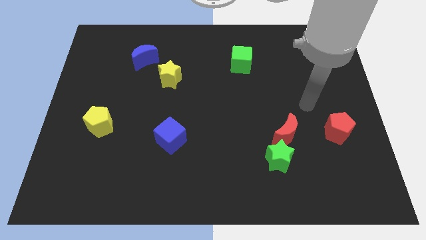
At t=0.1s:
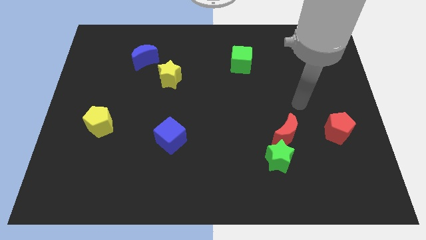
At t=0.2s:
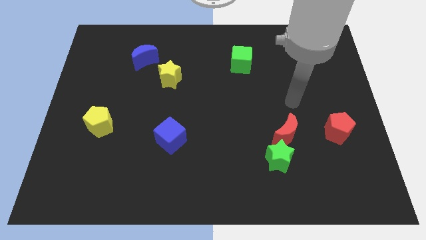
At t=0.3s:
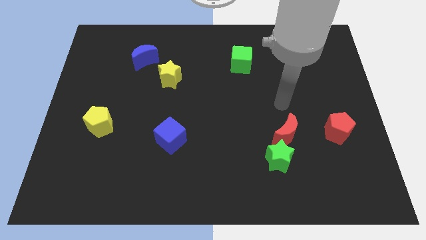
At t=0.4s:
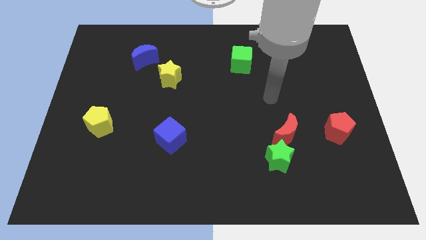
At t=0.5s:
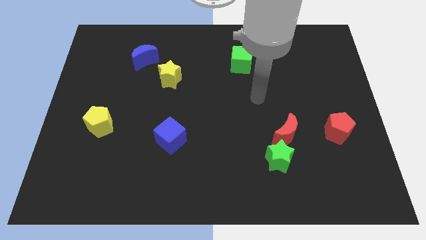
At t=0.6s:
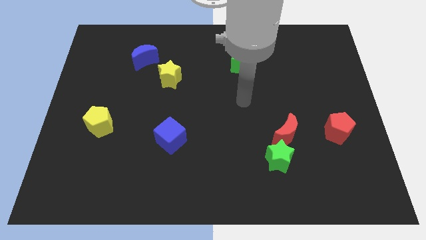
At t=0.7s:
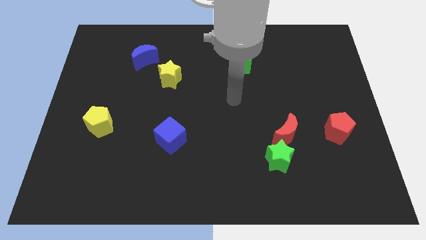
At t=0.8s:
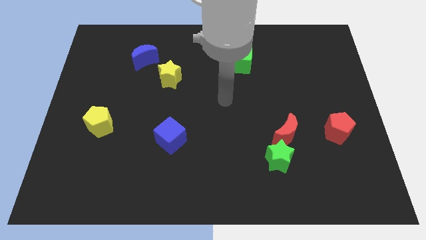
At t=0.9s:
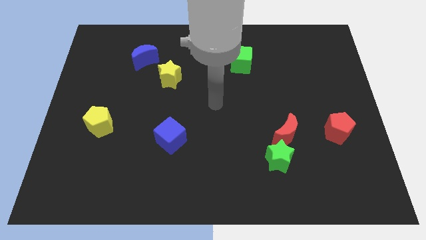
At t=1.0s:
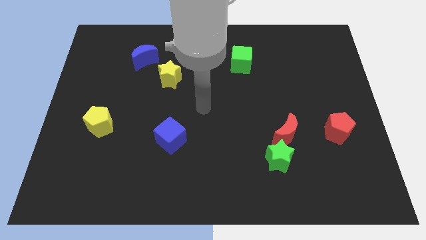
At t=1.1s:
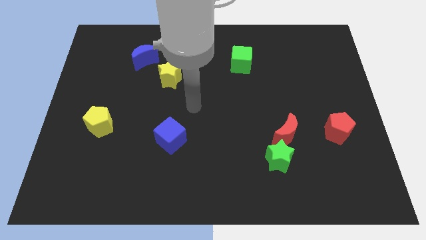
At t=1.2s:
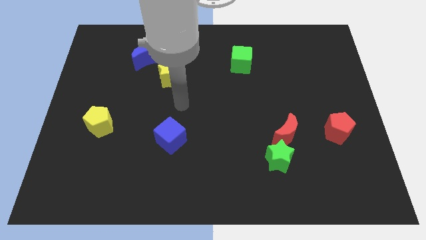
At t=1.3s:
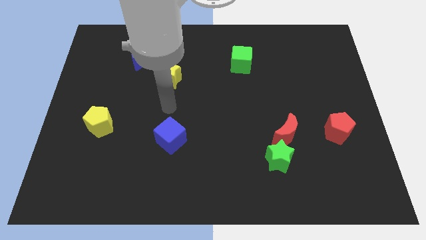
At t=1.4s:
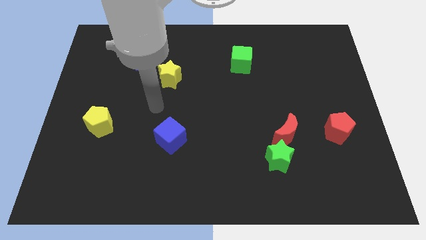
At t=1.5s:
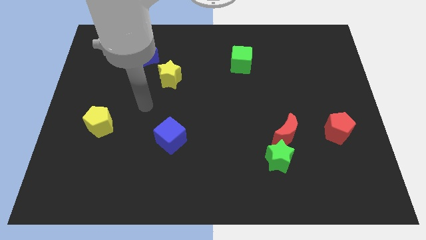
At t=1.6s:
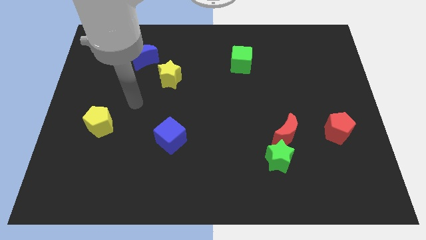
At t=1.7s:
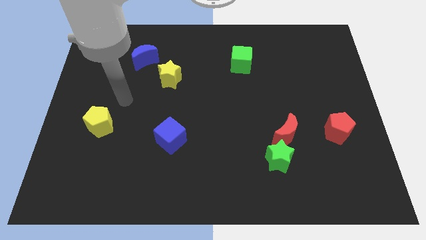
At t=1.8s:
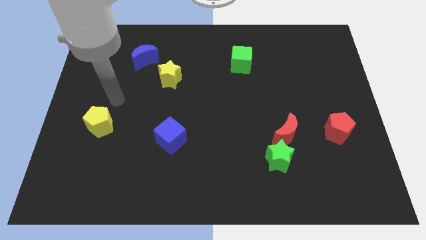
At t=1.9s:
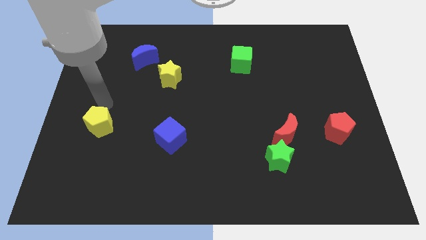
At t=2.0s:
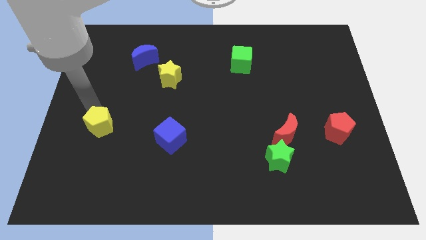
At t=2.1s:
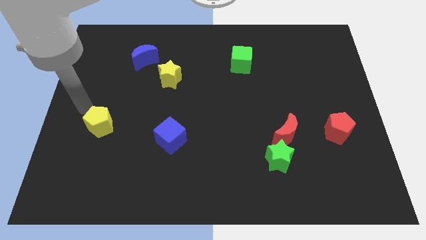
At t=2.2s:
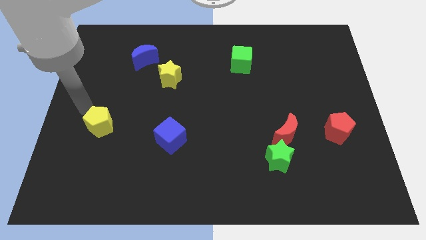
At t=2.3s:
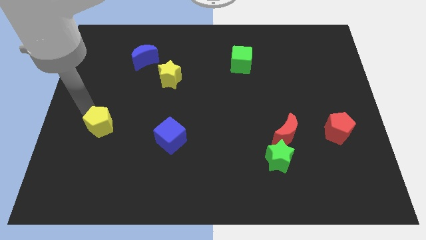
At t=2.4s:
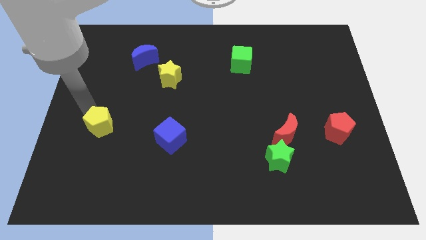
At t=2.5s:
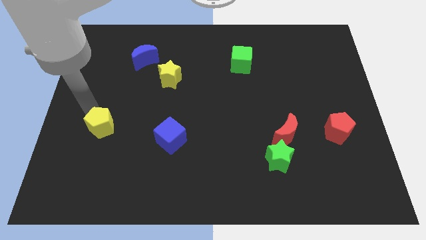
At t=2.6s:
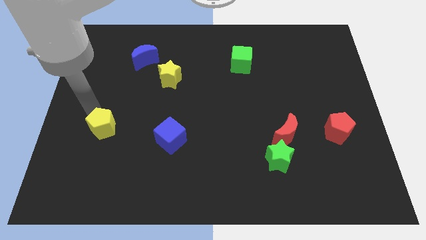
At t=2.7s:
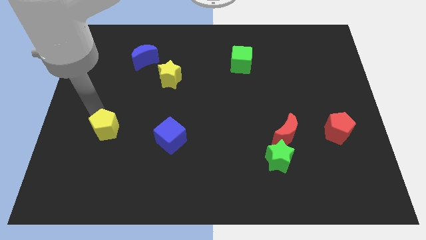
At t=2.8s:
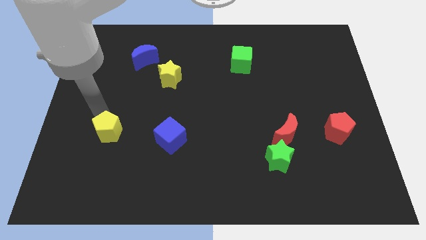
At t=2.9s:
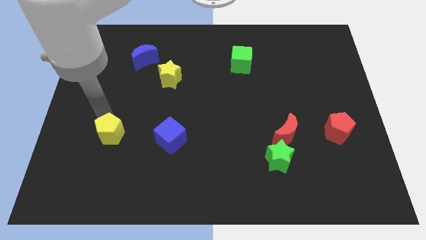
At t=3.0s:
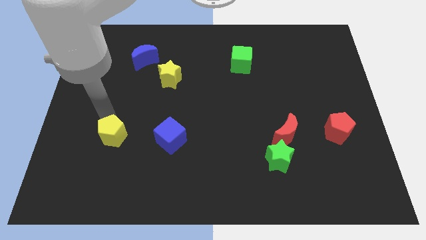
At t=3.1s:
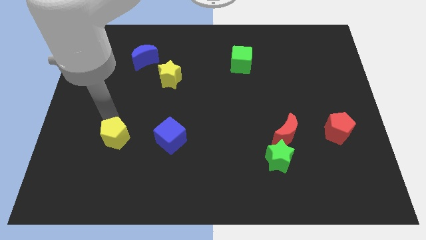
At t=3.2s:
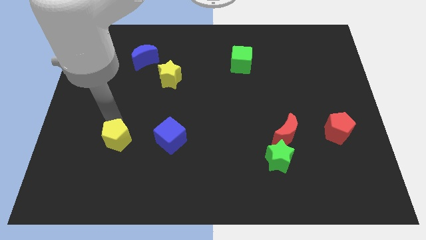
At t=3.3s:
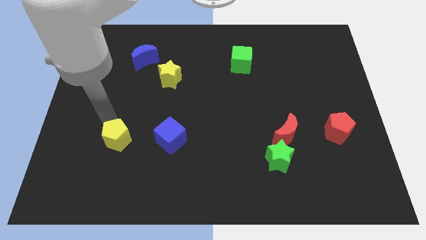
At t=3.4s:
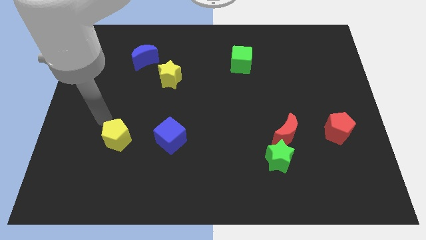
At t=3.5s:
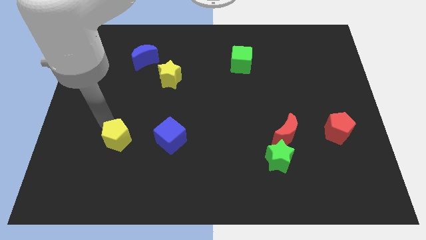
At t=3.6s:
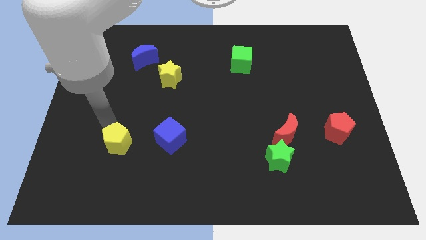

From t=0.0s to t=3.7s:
slide the yellow pentagon a bit downwards and to the right diagonally

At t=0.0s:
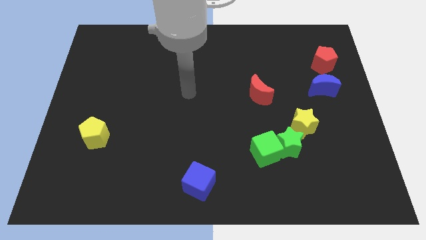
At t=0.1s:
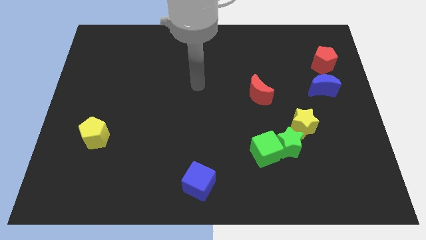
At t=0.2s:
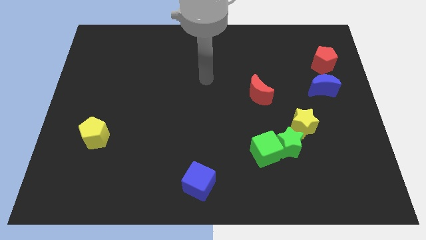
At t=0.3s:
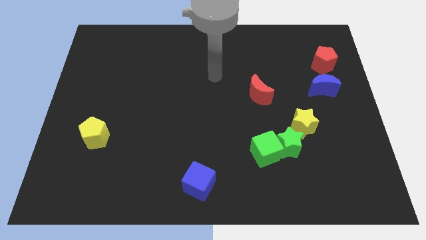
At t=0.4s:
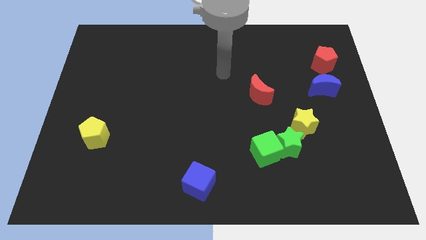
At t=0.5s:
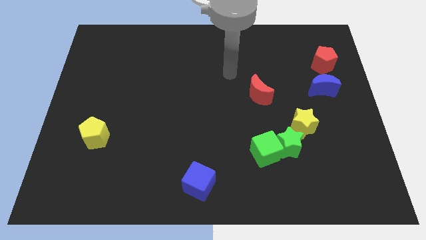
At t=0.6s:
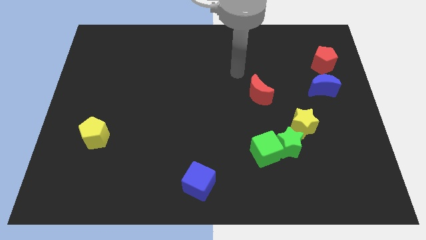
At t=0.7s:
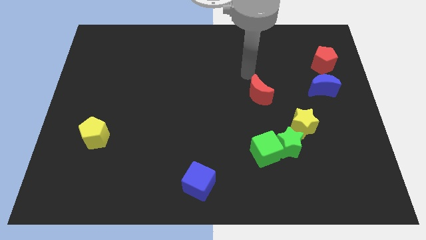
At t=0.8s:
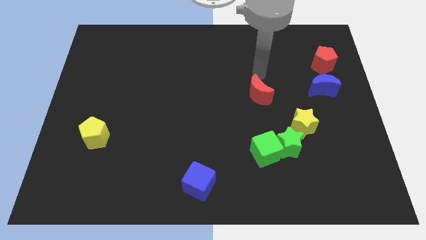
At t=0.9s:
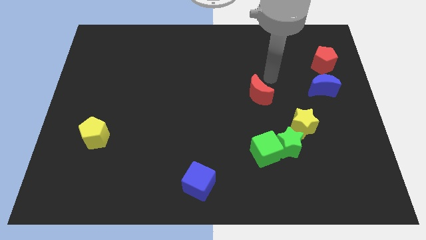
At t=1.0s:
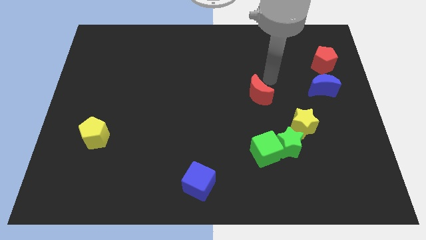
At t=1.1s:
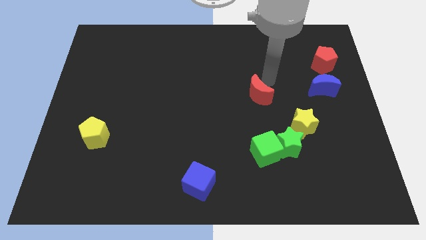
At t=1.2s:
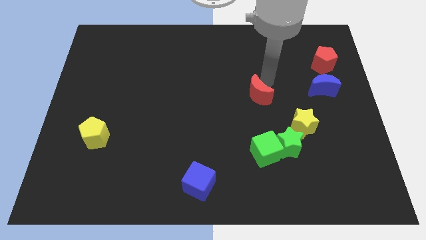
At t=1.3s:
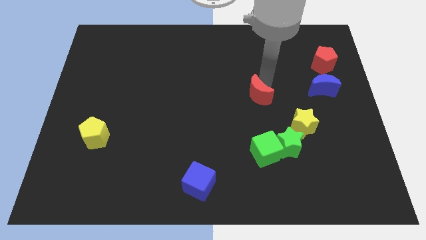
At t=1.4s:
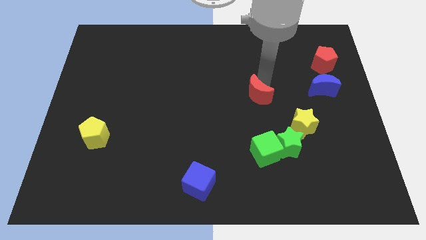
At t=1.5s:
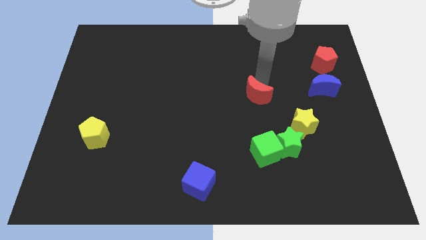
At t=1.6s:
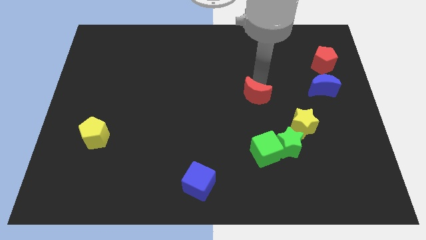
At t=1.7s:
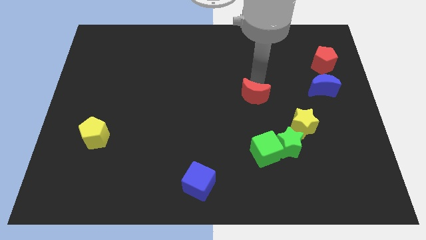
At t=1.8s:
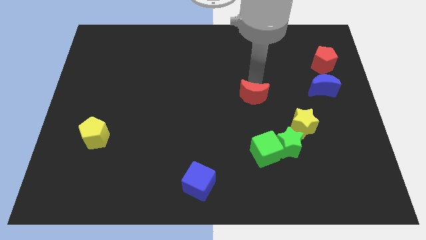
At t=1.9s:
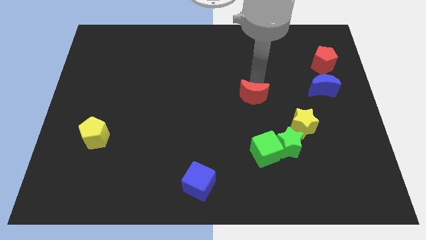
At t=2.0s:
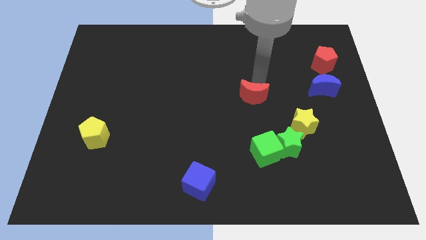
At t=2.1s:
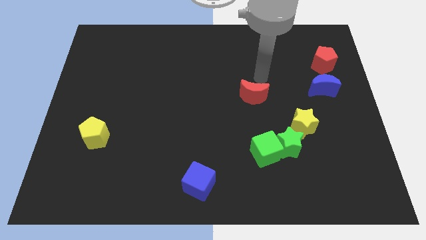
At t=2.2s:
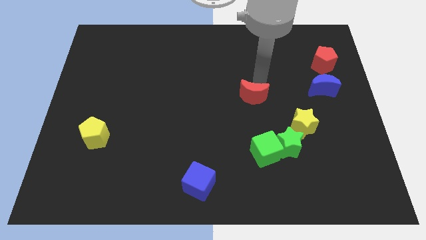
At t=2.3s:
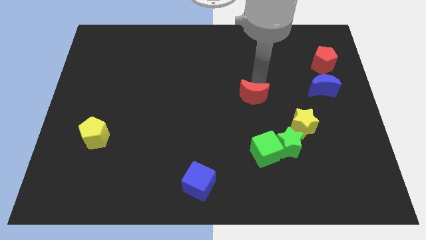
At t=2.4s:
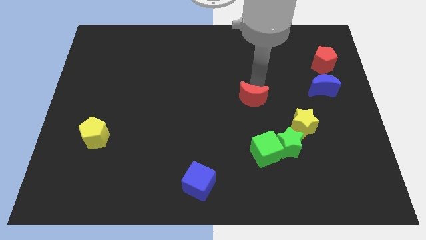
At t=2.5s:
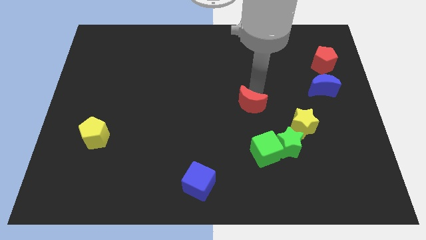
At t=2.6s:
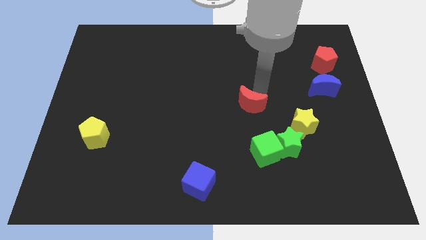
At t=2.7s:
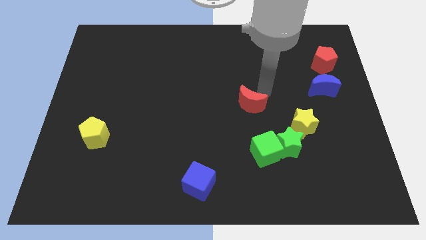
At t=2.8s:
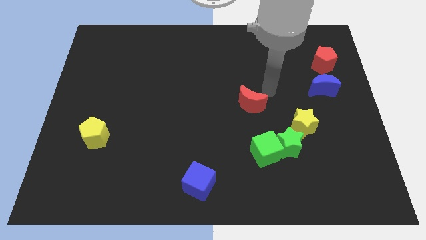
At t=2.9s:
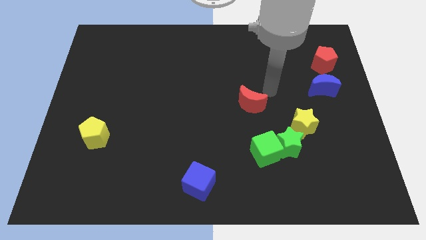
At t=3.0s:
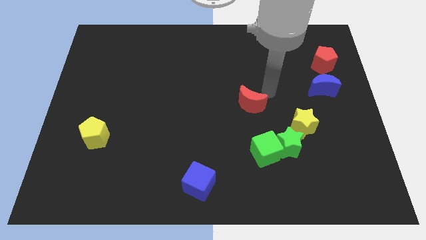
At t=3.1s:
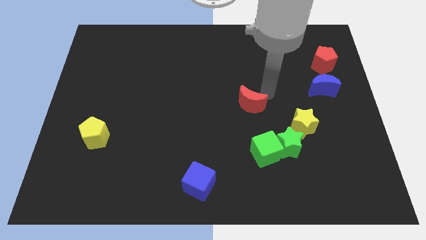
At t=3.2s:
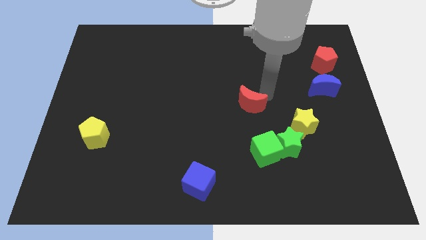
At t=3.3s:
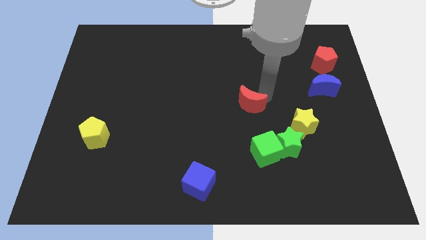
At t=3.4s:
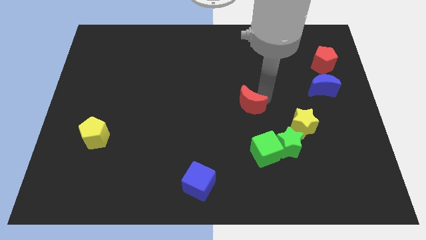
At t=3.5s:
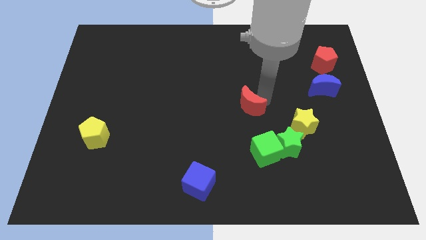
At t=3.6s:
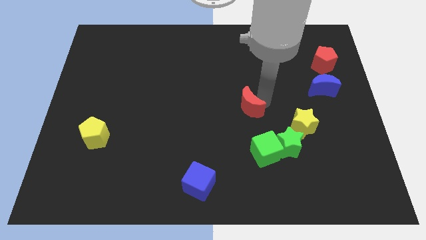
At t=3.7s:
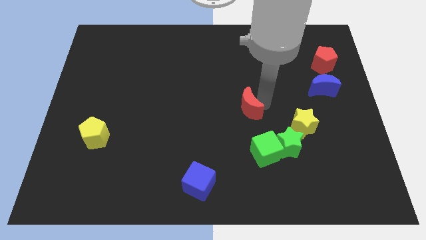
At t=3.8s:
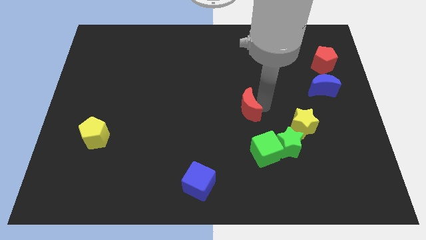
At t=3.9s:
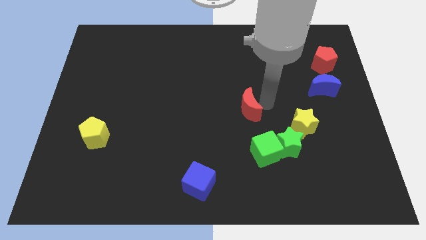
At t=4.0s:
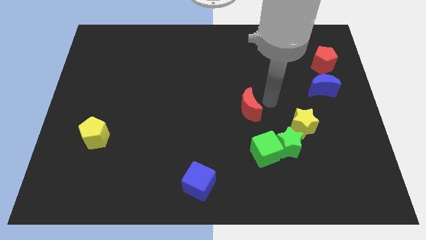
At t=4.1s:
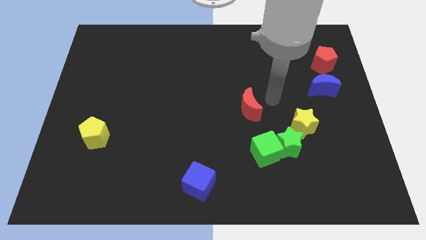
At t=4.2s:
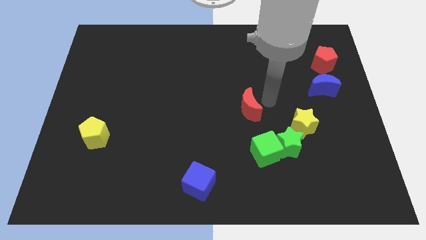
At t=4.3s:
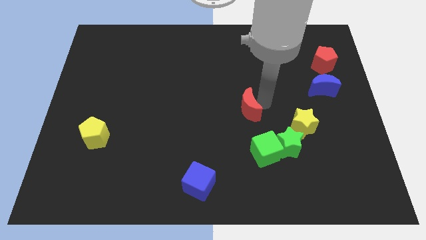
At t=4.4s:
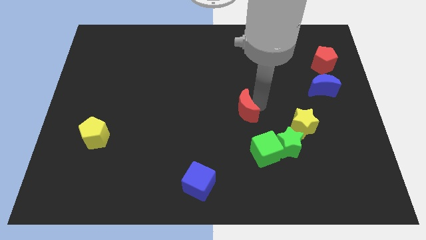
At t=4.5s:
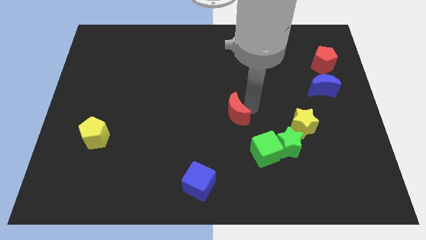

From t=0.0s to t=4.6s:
slightly push the red moon downwards and to the left
